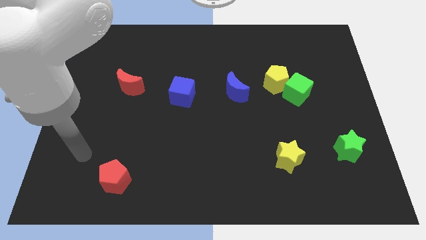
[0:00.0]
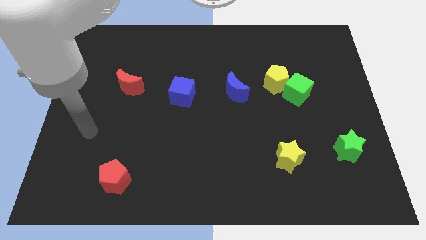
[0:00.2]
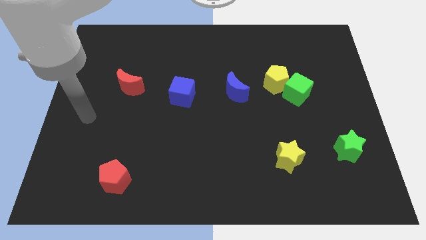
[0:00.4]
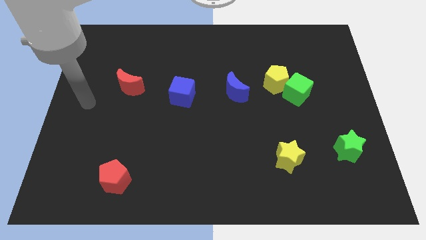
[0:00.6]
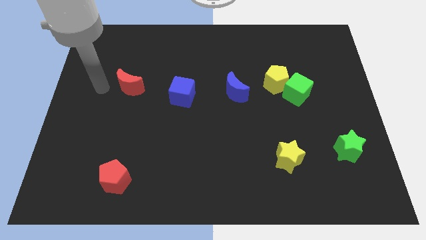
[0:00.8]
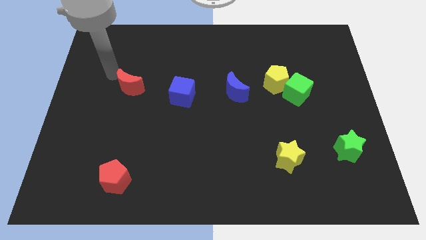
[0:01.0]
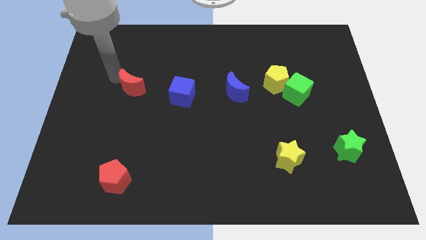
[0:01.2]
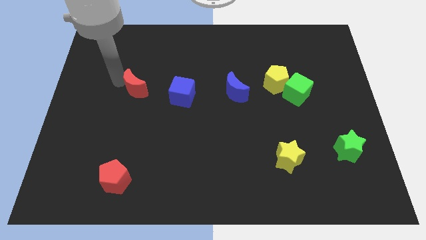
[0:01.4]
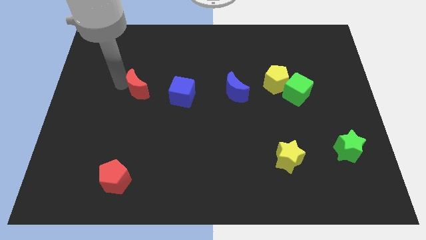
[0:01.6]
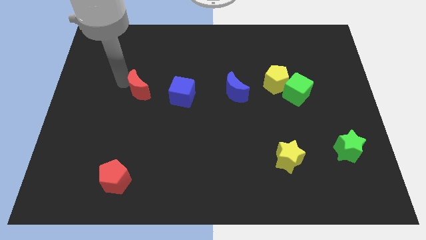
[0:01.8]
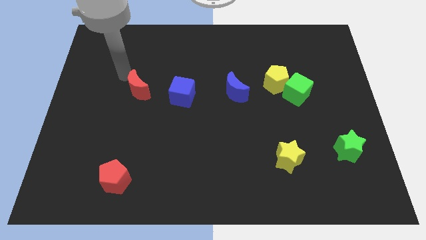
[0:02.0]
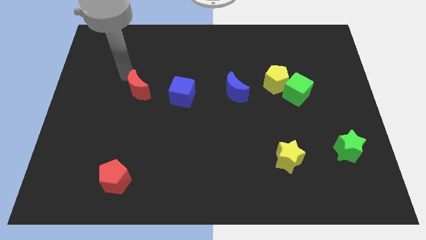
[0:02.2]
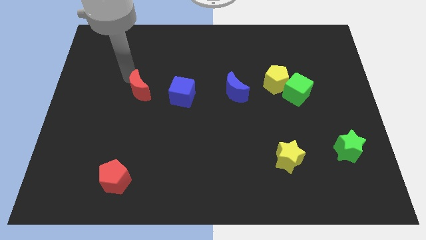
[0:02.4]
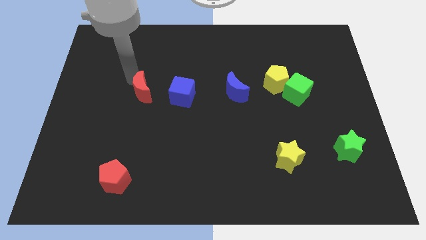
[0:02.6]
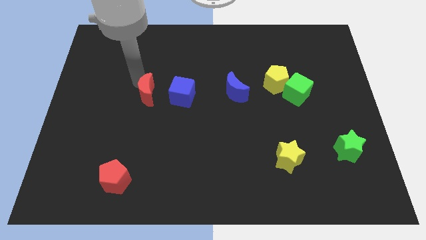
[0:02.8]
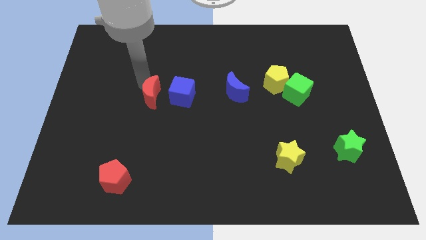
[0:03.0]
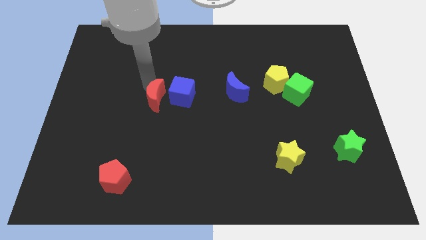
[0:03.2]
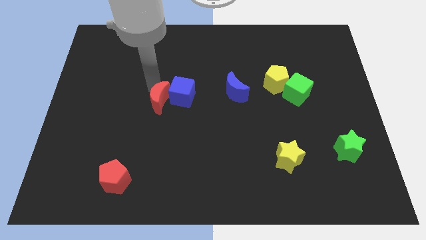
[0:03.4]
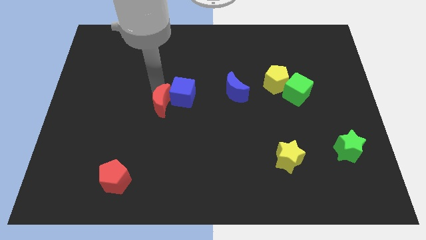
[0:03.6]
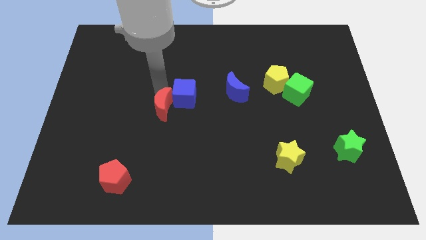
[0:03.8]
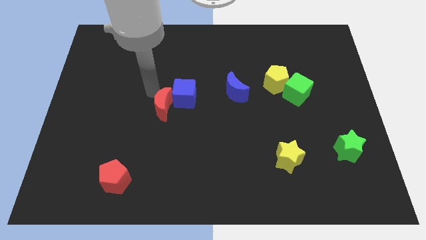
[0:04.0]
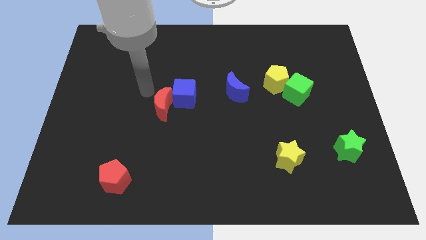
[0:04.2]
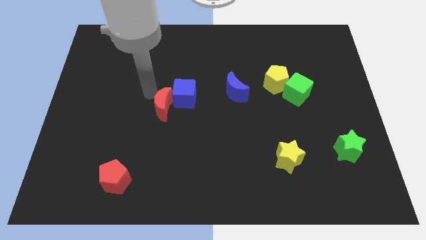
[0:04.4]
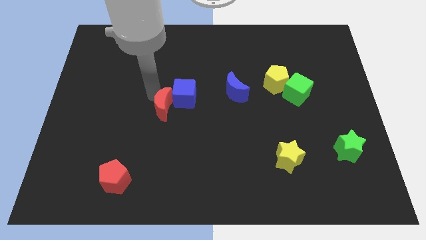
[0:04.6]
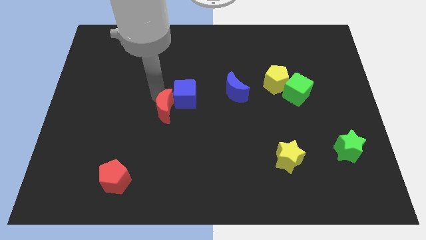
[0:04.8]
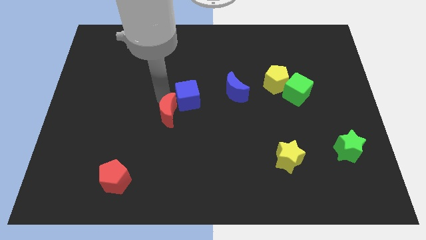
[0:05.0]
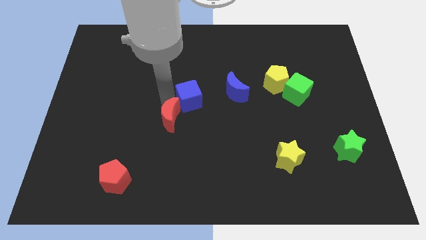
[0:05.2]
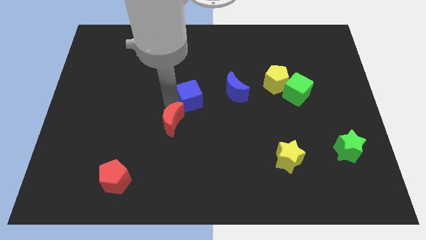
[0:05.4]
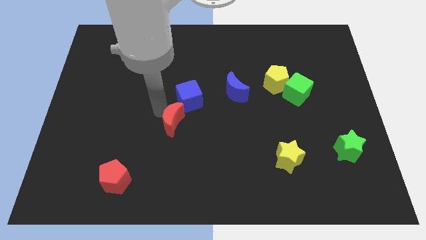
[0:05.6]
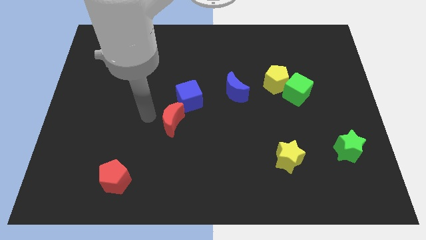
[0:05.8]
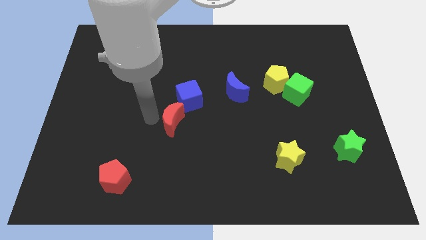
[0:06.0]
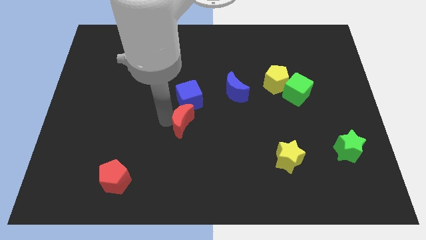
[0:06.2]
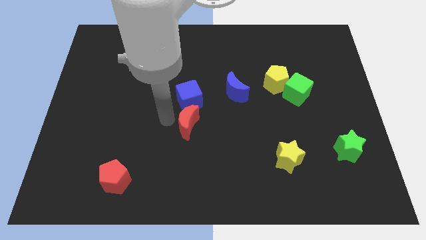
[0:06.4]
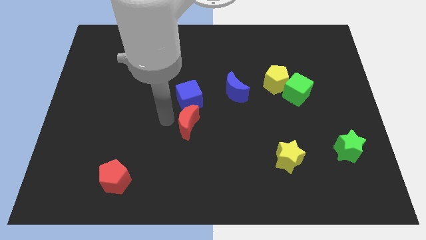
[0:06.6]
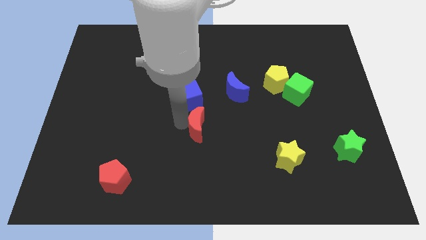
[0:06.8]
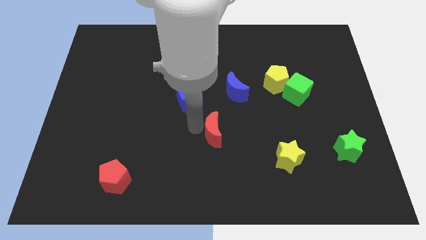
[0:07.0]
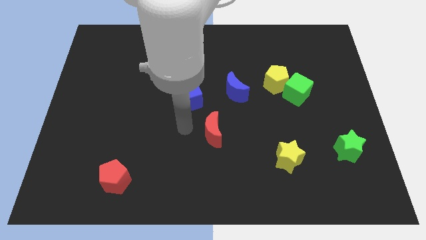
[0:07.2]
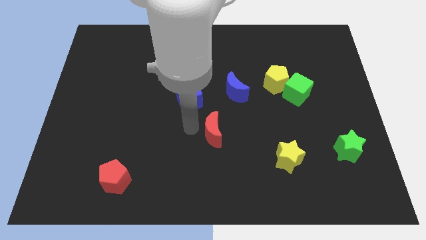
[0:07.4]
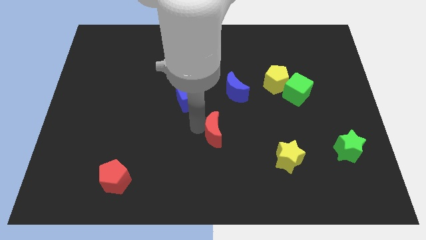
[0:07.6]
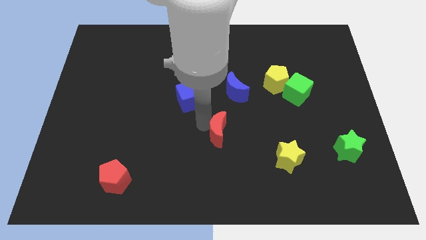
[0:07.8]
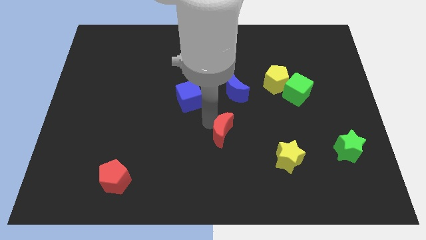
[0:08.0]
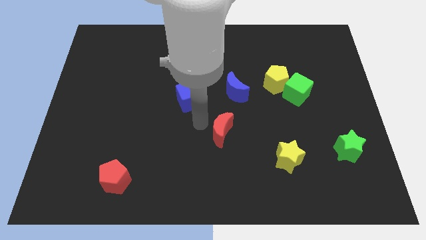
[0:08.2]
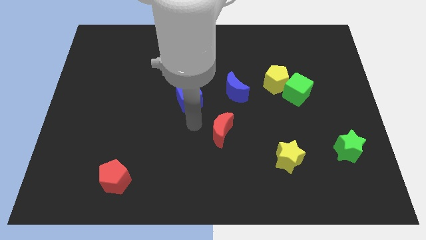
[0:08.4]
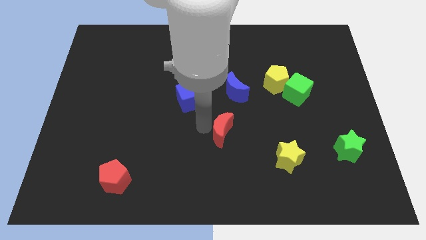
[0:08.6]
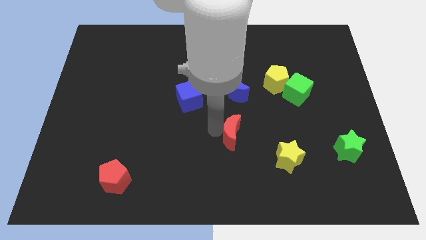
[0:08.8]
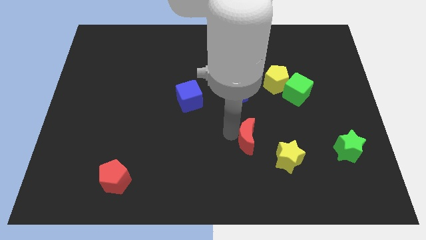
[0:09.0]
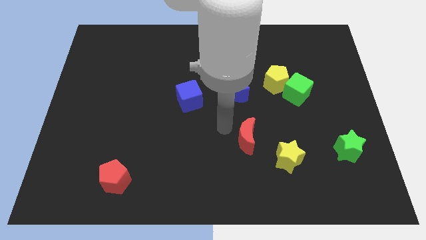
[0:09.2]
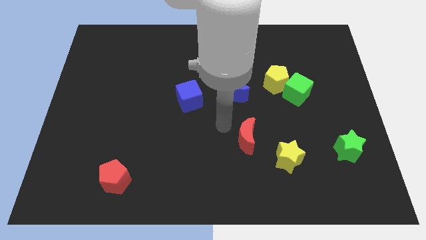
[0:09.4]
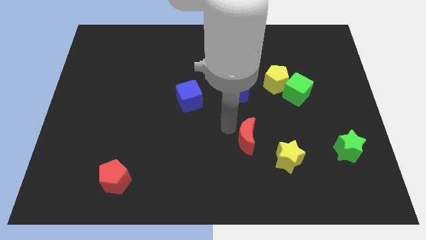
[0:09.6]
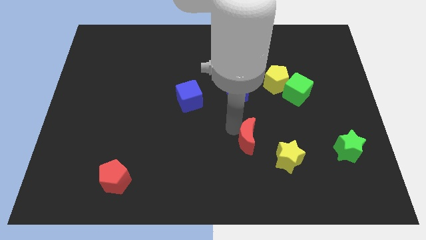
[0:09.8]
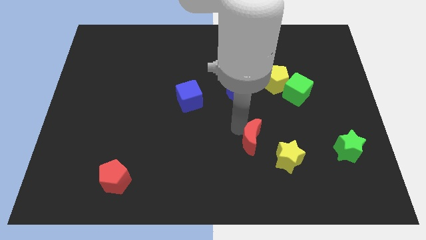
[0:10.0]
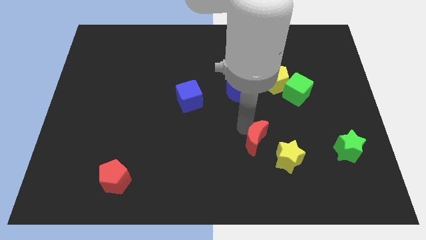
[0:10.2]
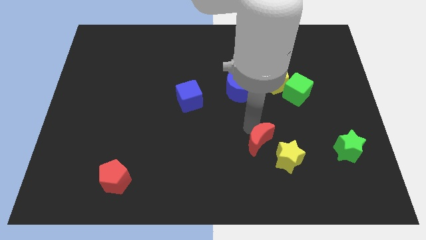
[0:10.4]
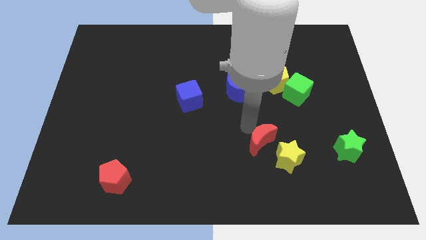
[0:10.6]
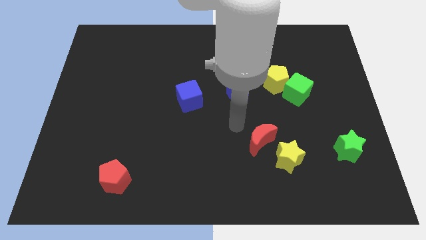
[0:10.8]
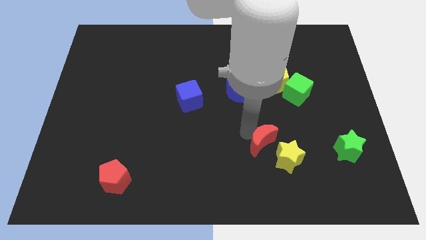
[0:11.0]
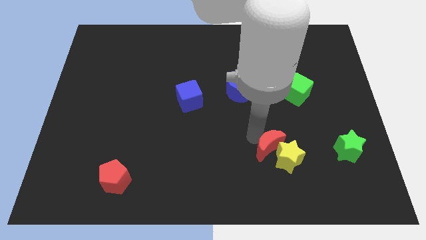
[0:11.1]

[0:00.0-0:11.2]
put the red moon next to the yellow star

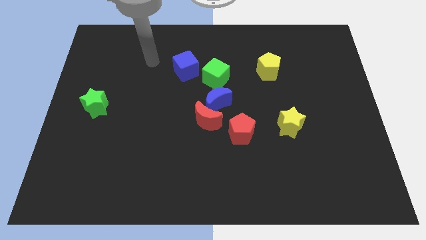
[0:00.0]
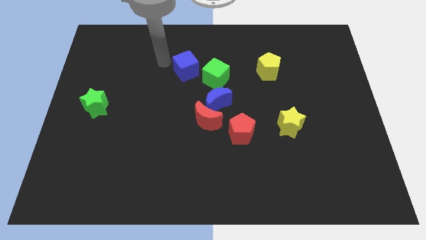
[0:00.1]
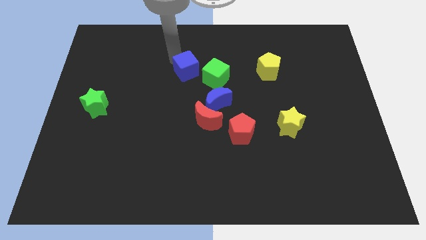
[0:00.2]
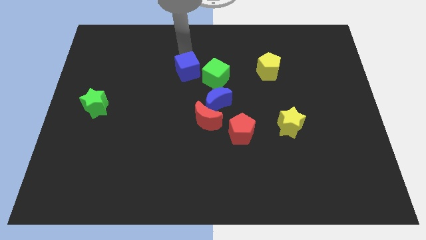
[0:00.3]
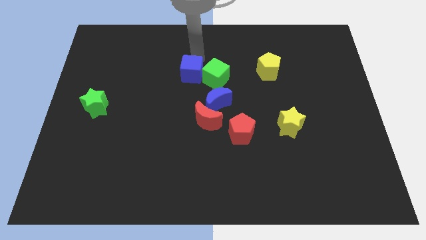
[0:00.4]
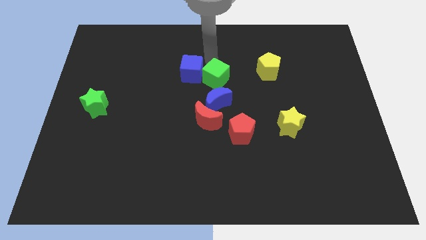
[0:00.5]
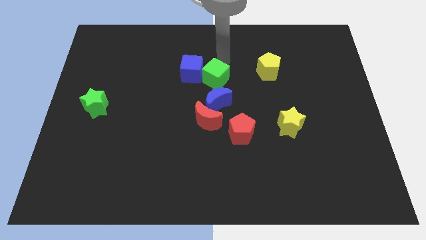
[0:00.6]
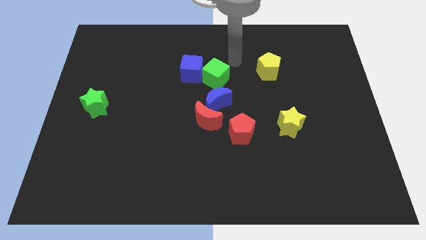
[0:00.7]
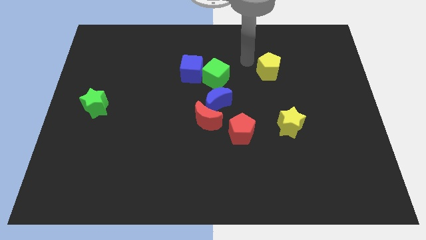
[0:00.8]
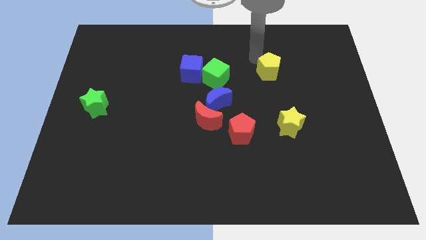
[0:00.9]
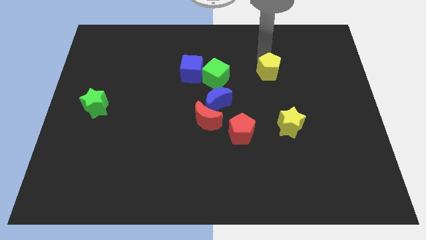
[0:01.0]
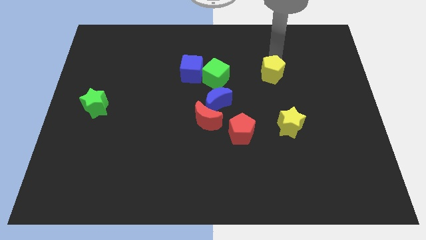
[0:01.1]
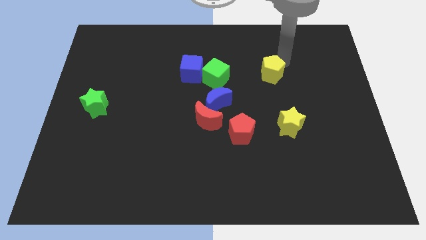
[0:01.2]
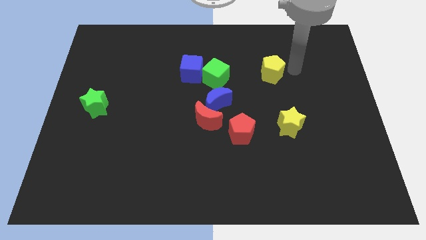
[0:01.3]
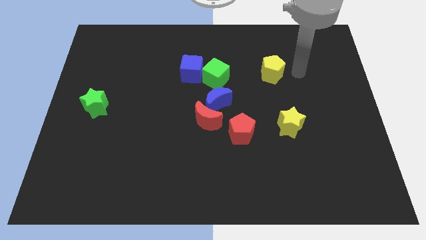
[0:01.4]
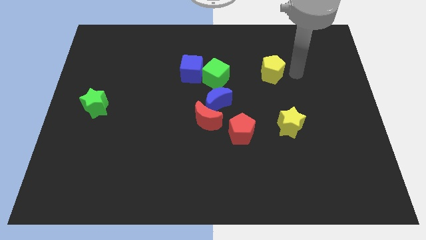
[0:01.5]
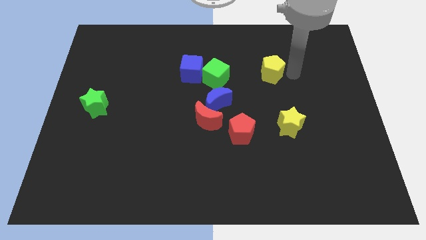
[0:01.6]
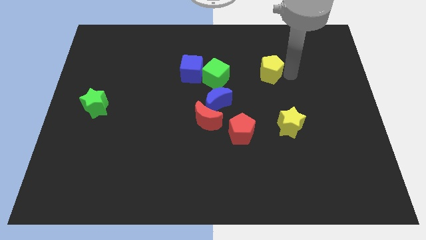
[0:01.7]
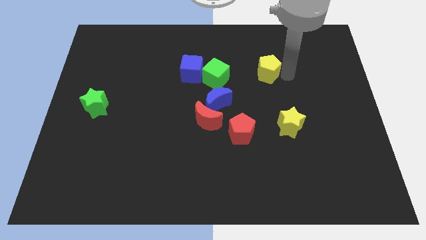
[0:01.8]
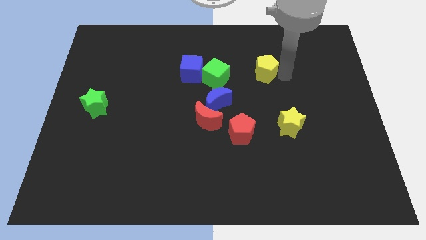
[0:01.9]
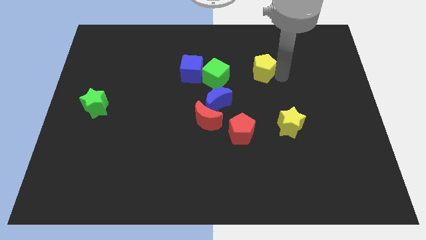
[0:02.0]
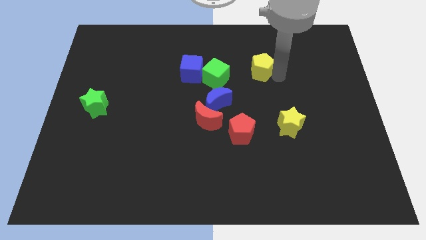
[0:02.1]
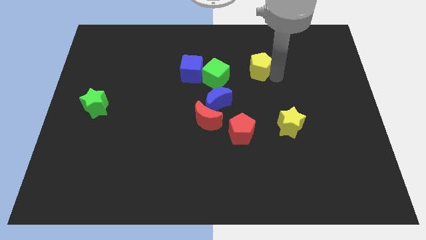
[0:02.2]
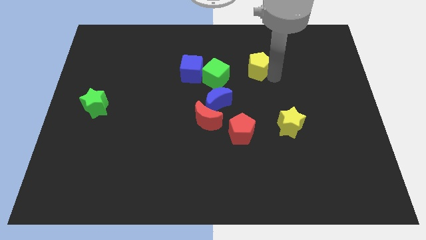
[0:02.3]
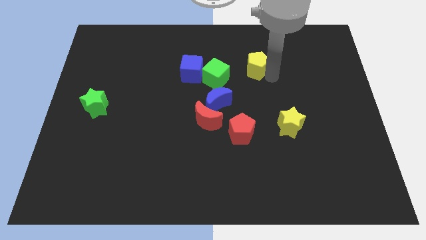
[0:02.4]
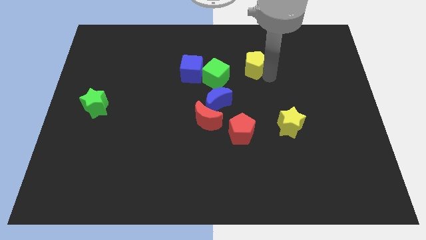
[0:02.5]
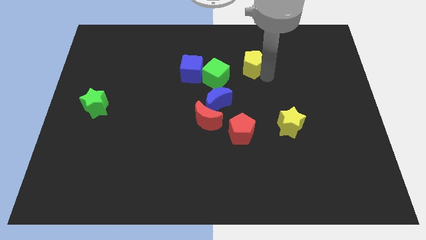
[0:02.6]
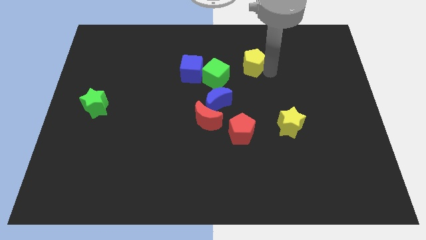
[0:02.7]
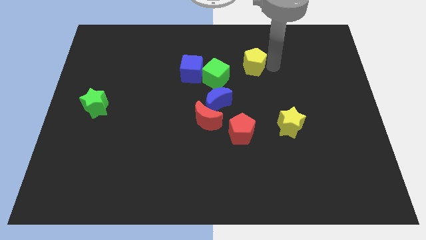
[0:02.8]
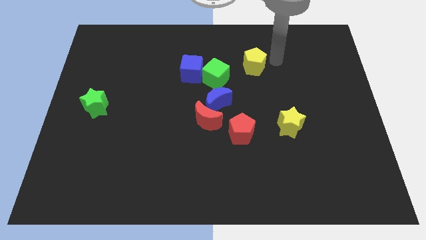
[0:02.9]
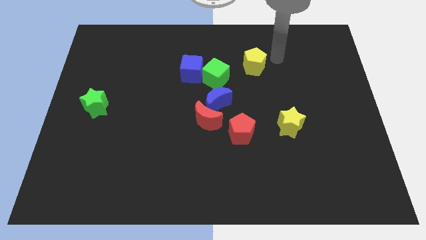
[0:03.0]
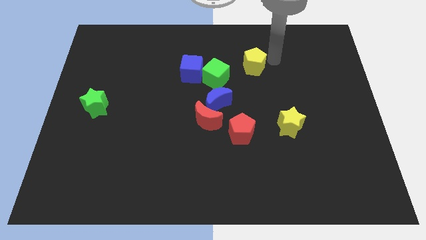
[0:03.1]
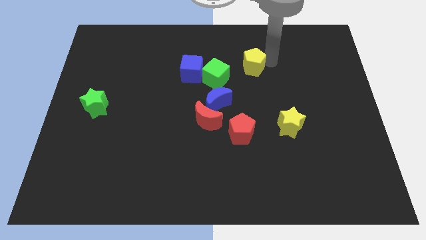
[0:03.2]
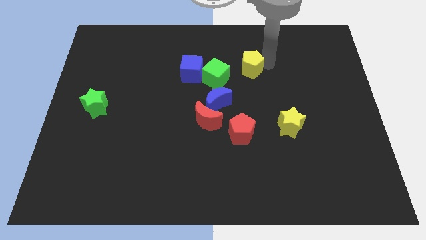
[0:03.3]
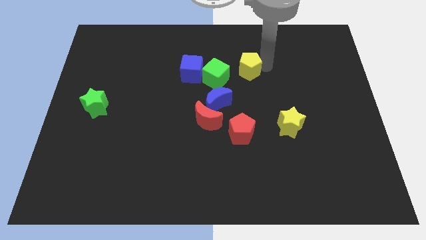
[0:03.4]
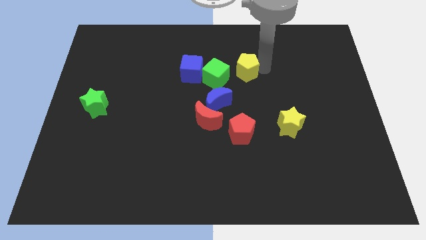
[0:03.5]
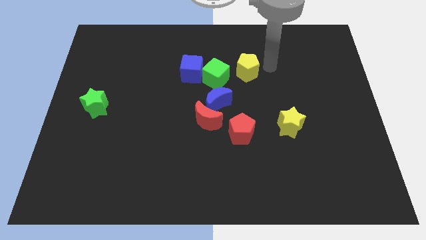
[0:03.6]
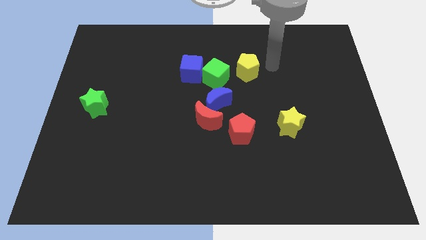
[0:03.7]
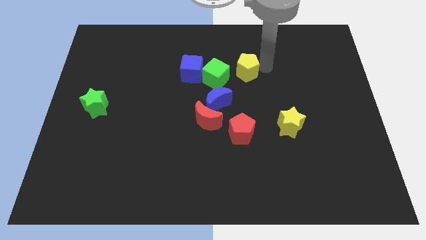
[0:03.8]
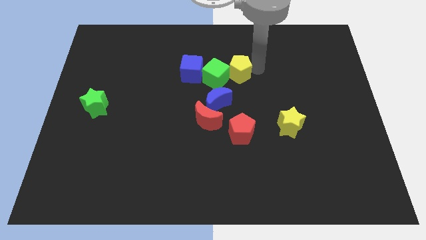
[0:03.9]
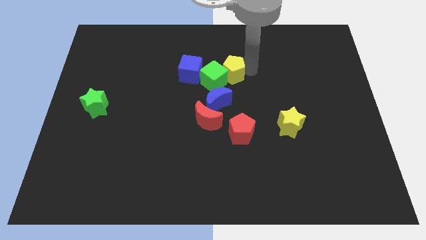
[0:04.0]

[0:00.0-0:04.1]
put the yellow pentagon close to the green cube
